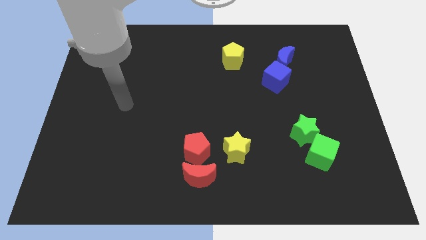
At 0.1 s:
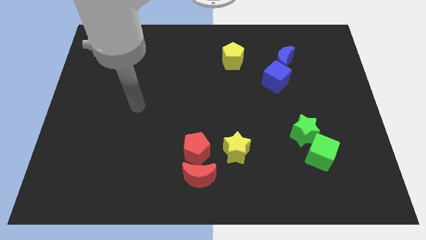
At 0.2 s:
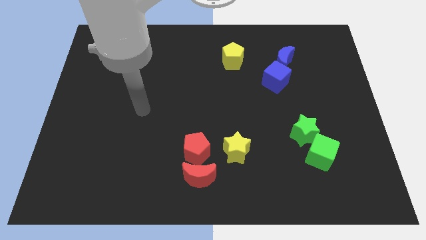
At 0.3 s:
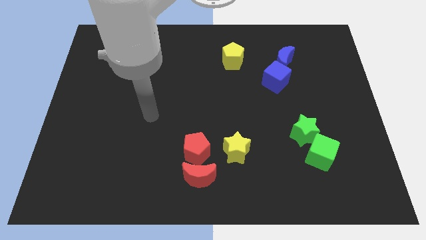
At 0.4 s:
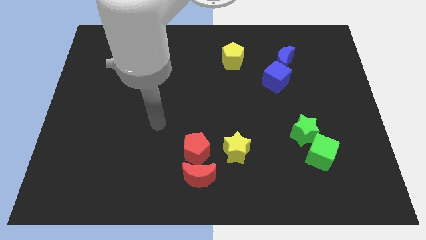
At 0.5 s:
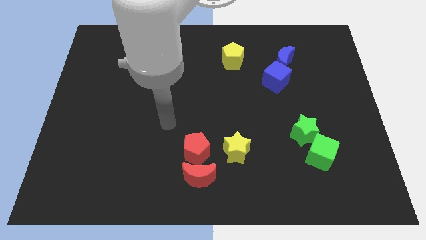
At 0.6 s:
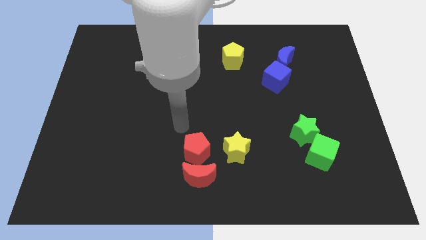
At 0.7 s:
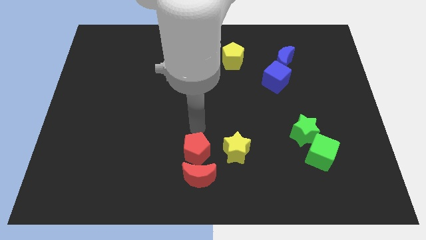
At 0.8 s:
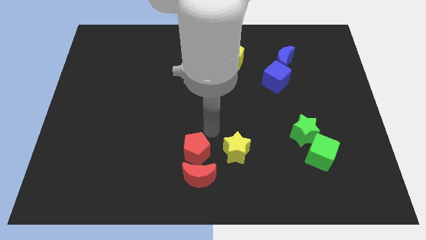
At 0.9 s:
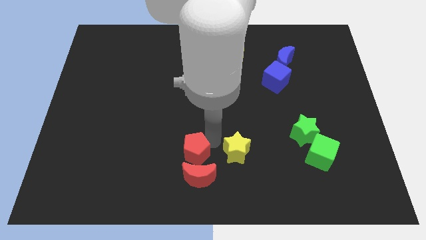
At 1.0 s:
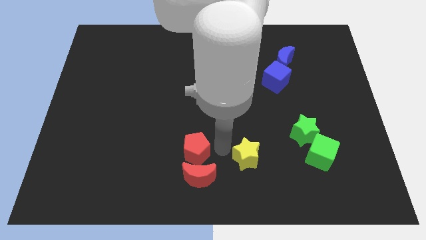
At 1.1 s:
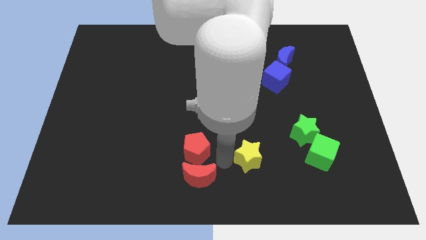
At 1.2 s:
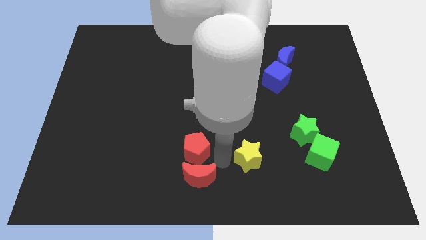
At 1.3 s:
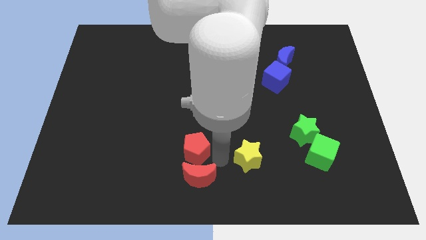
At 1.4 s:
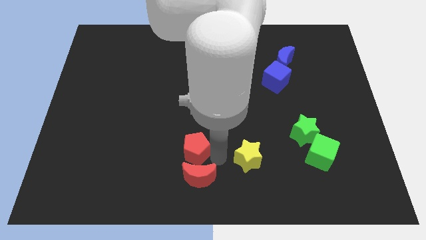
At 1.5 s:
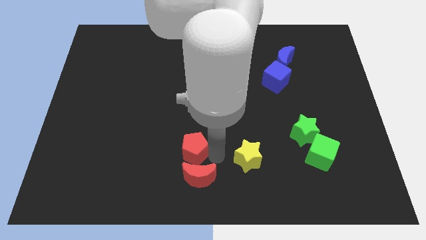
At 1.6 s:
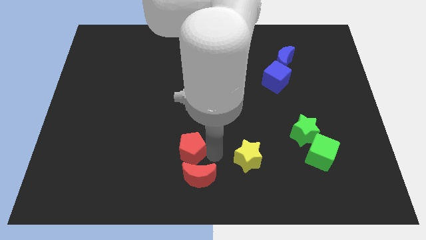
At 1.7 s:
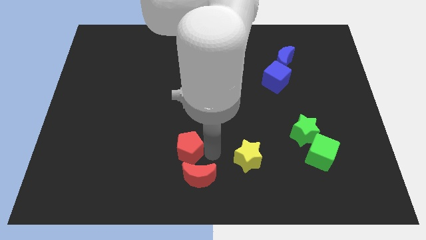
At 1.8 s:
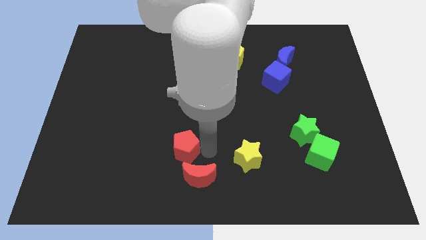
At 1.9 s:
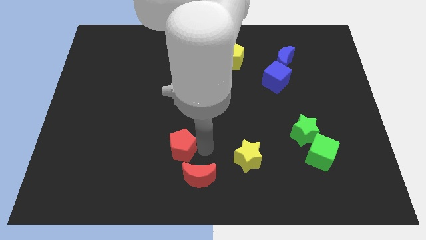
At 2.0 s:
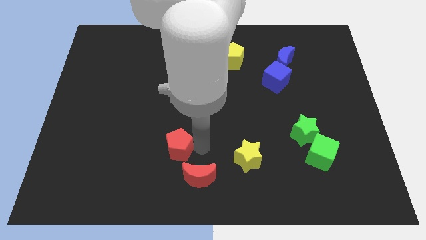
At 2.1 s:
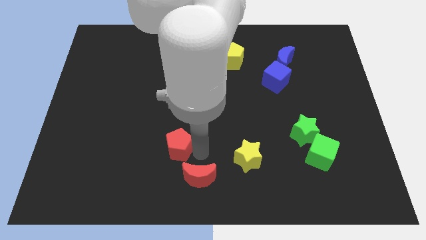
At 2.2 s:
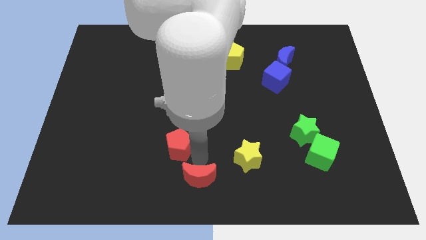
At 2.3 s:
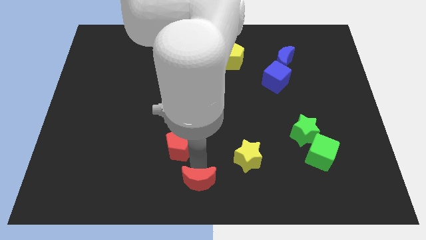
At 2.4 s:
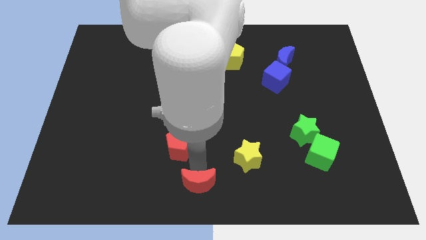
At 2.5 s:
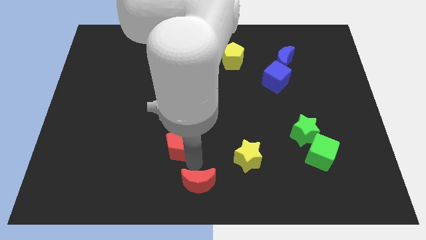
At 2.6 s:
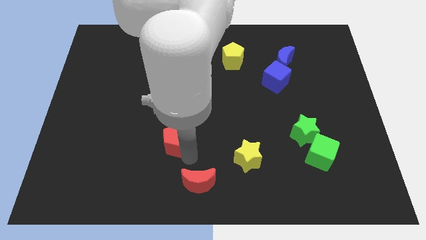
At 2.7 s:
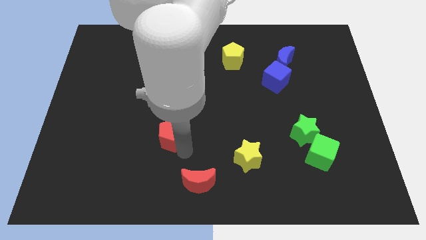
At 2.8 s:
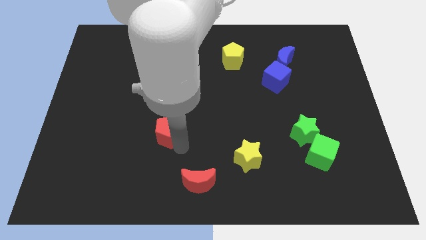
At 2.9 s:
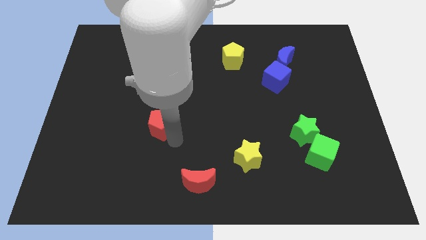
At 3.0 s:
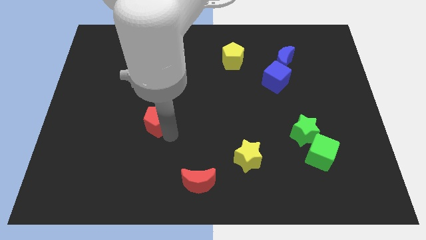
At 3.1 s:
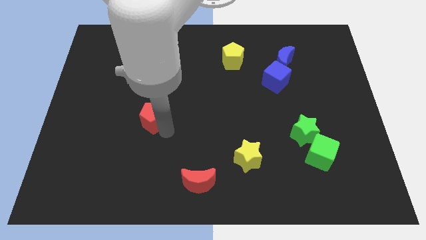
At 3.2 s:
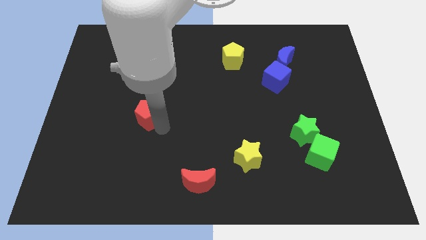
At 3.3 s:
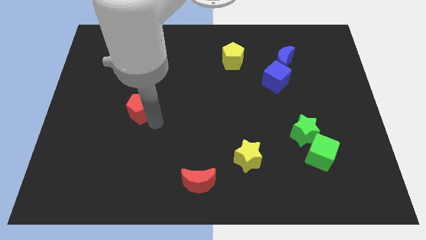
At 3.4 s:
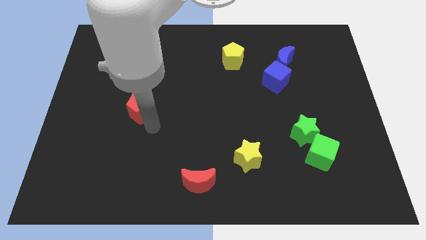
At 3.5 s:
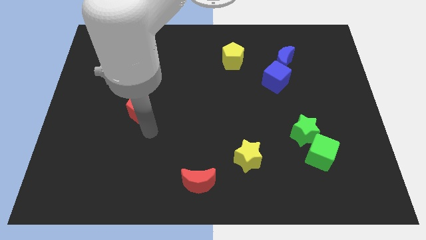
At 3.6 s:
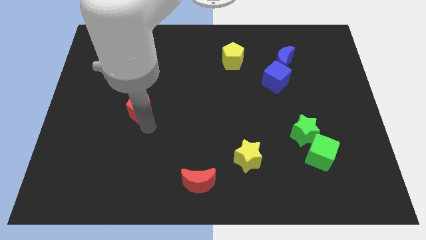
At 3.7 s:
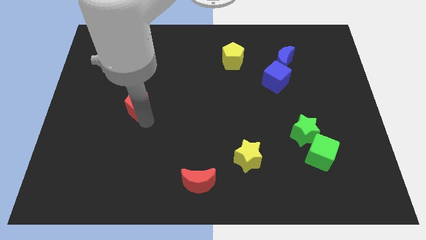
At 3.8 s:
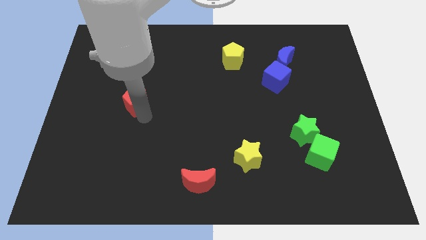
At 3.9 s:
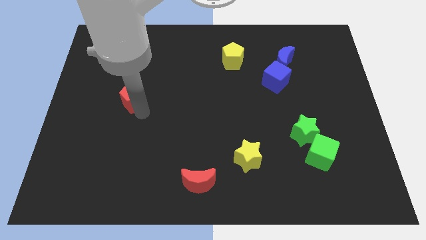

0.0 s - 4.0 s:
slide the red pentagon diagonally upwards and to the left

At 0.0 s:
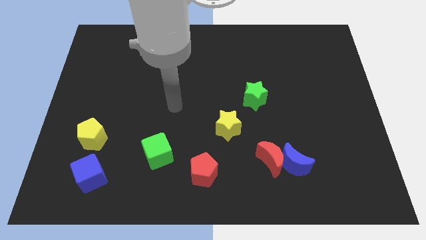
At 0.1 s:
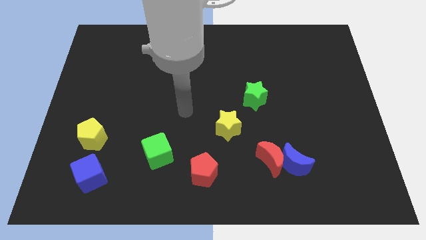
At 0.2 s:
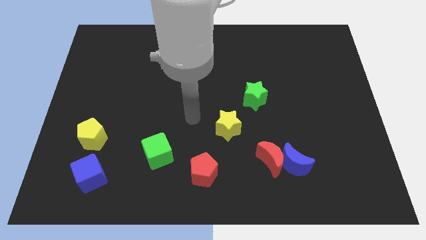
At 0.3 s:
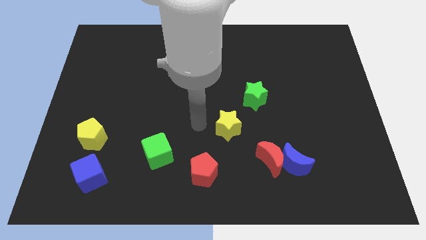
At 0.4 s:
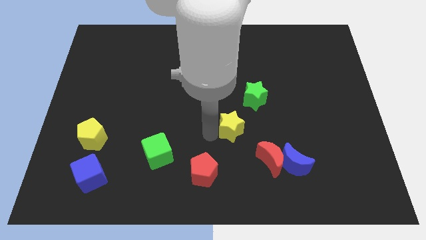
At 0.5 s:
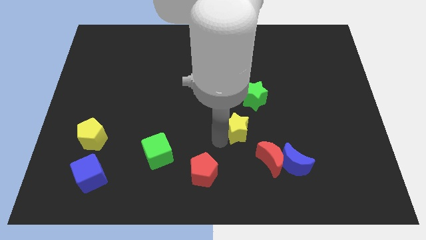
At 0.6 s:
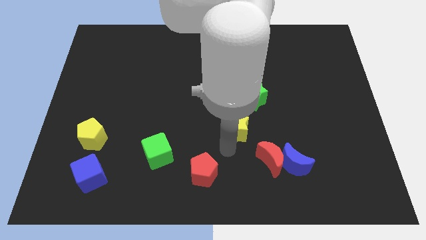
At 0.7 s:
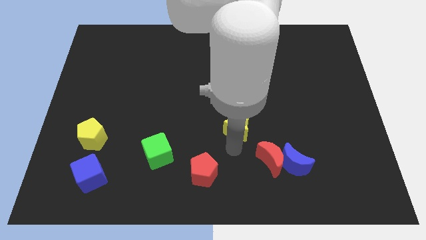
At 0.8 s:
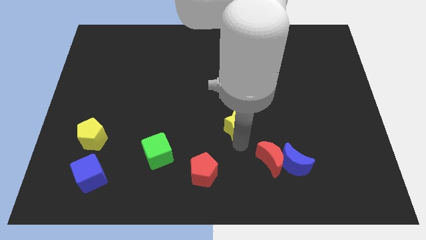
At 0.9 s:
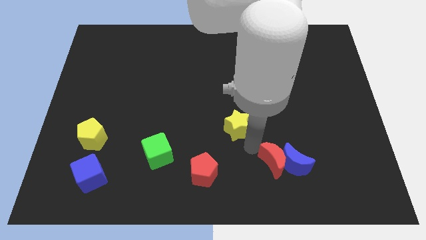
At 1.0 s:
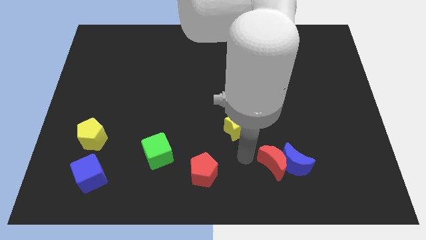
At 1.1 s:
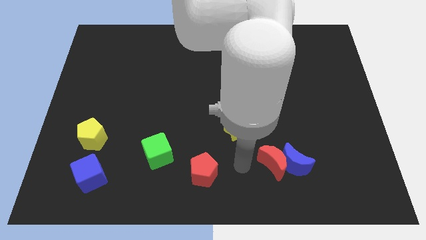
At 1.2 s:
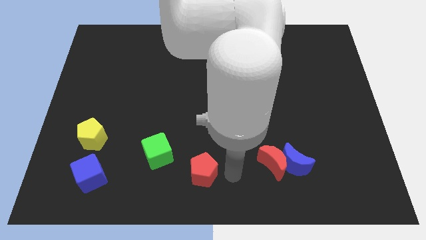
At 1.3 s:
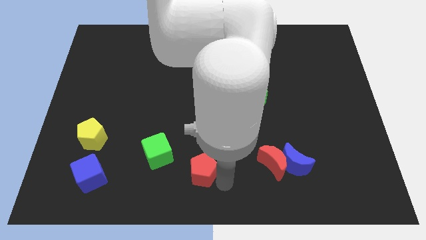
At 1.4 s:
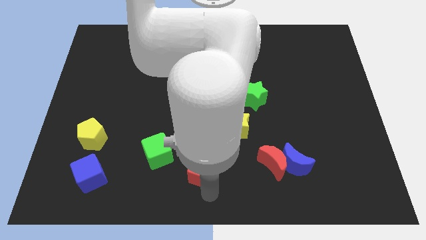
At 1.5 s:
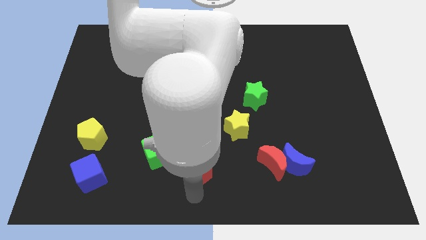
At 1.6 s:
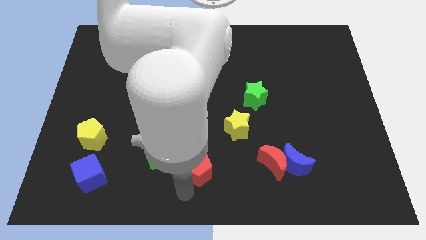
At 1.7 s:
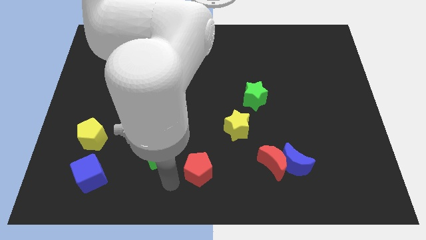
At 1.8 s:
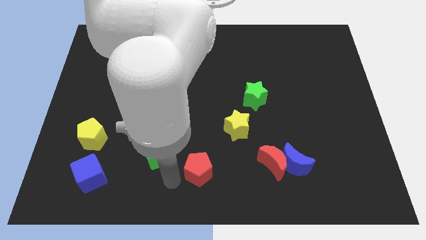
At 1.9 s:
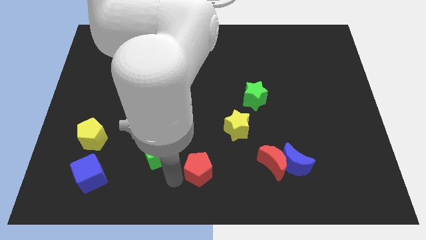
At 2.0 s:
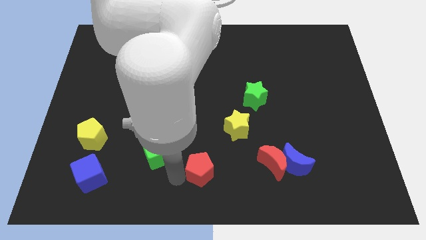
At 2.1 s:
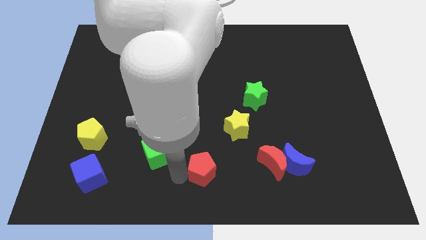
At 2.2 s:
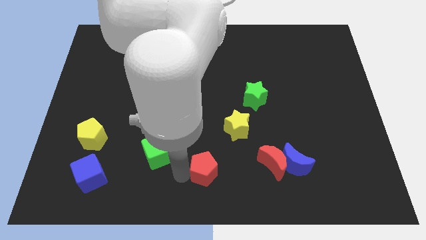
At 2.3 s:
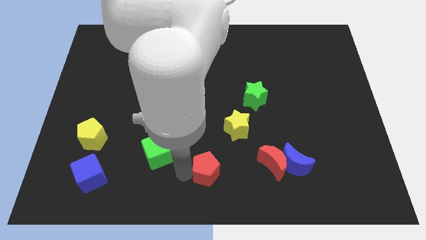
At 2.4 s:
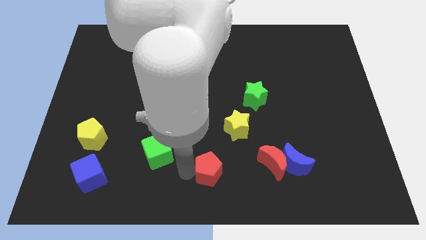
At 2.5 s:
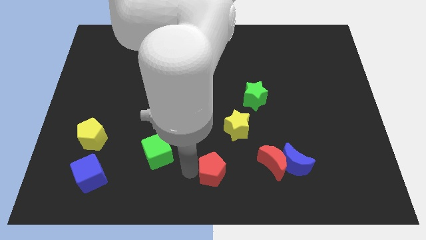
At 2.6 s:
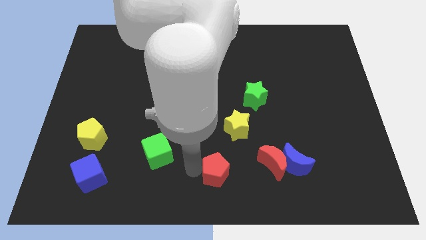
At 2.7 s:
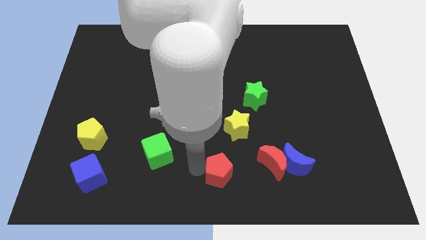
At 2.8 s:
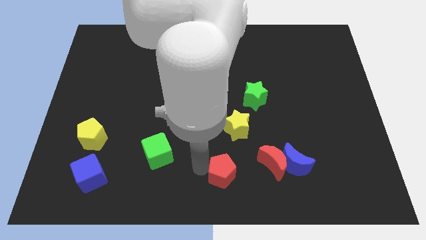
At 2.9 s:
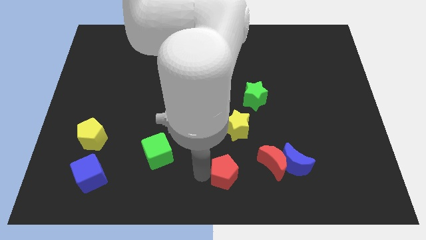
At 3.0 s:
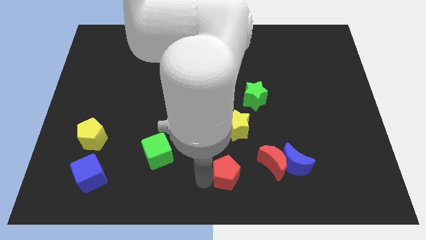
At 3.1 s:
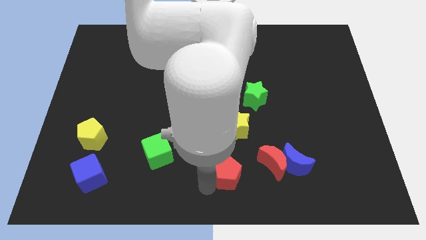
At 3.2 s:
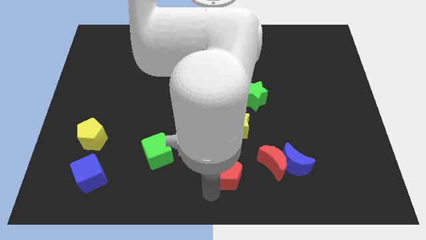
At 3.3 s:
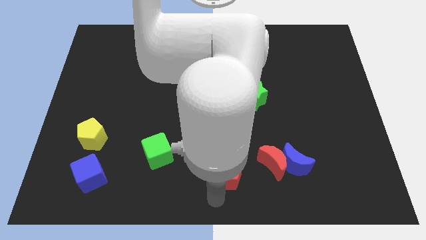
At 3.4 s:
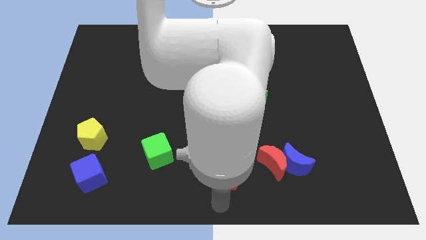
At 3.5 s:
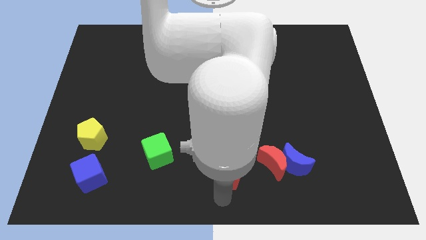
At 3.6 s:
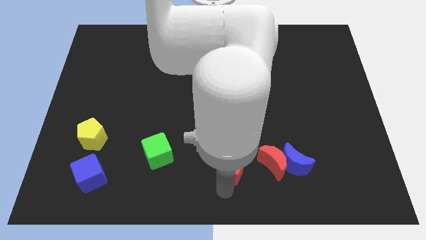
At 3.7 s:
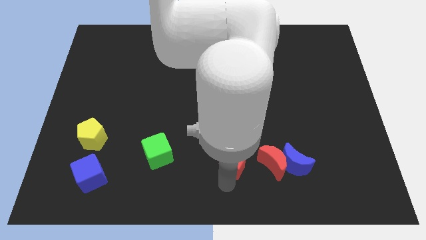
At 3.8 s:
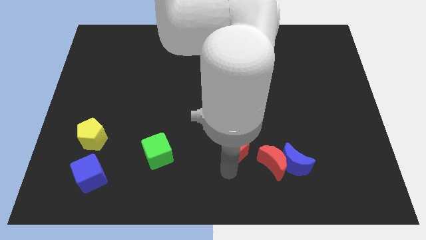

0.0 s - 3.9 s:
slightly move the red pentagon upwards and right
